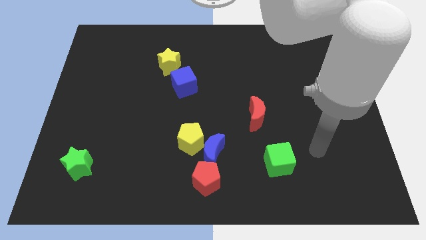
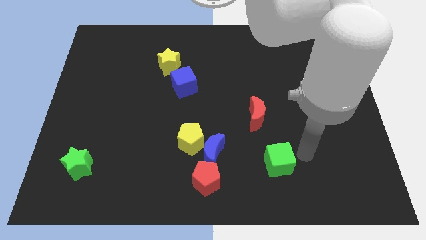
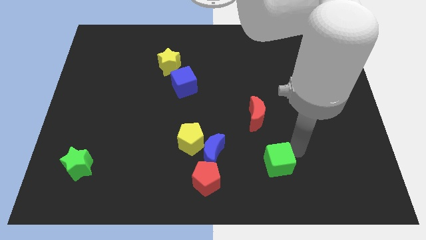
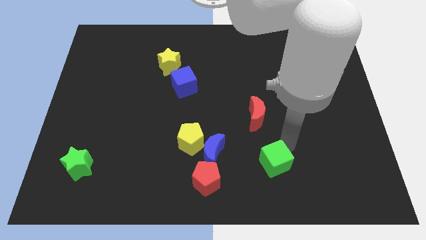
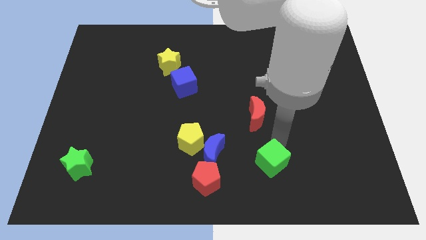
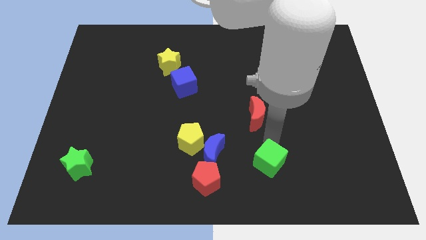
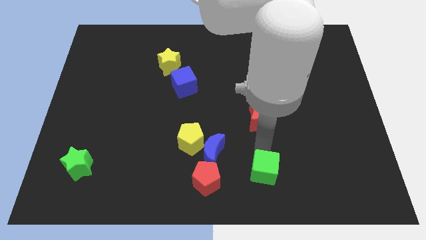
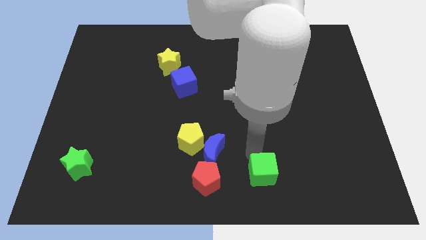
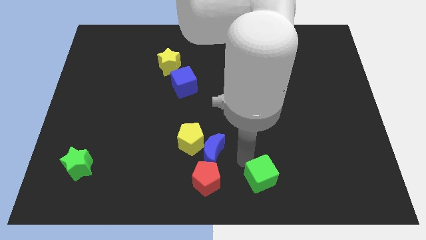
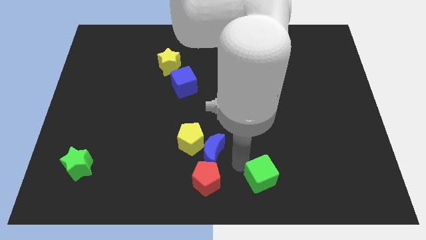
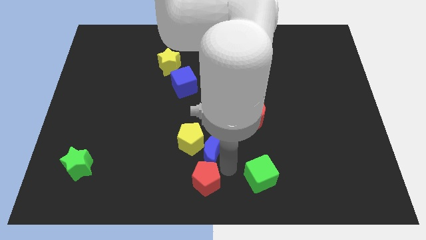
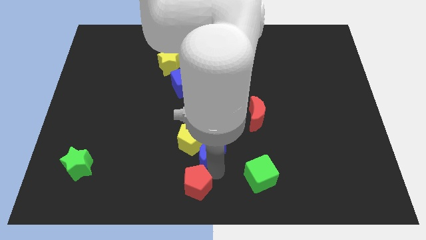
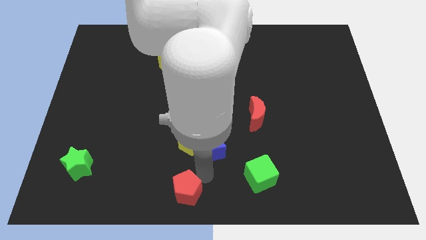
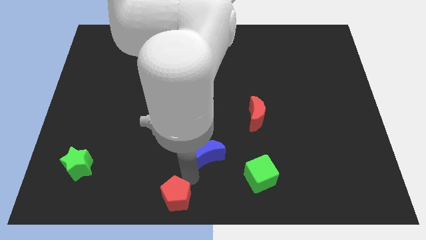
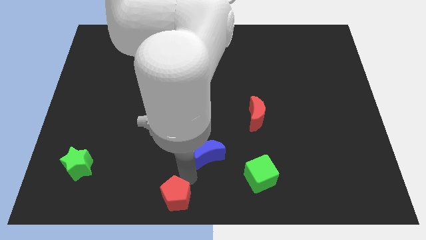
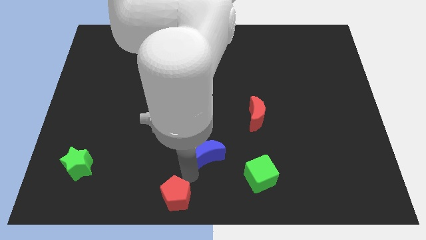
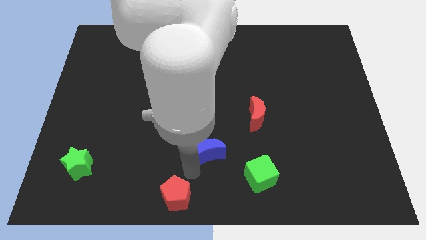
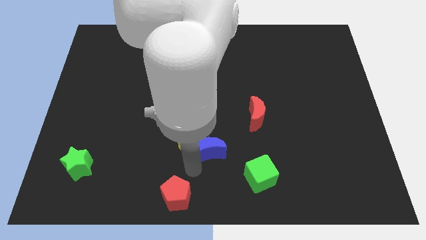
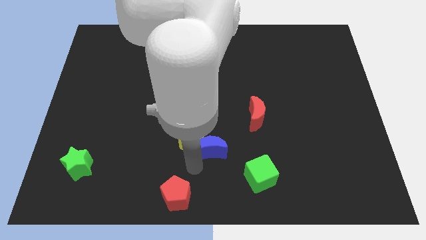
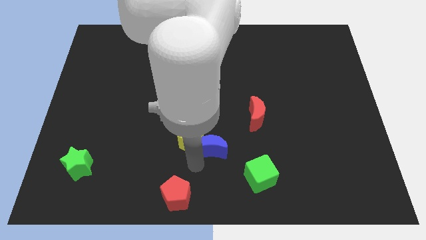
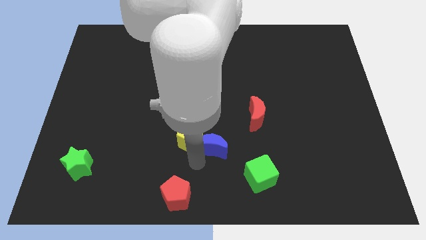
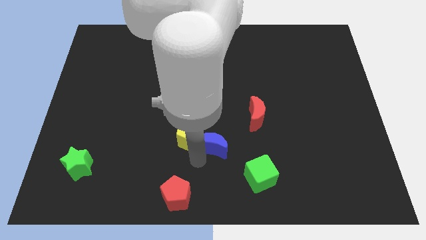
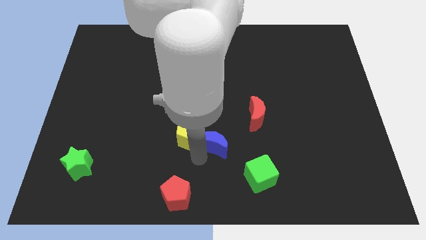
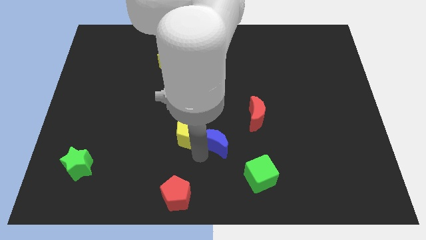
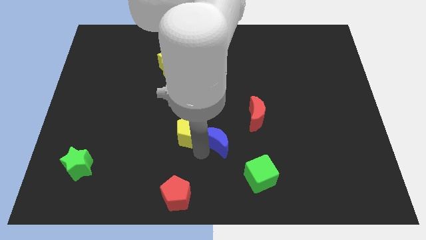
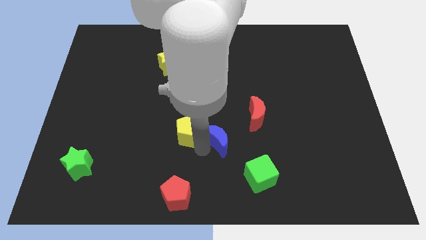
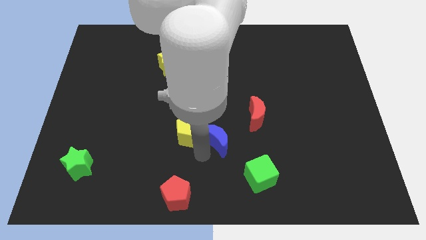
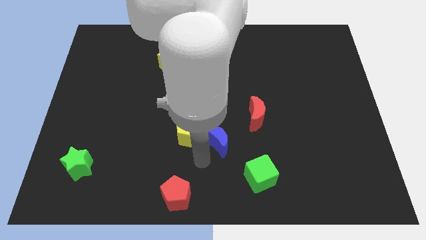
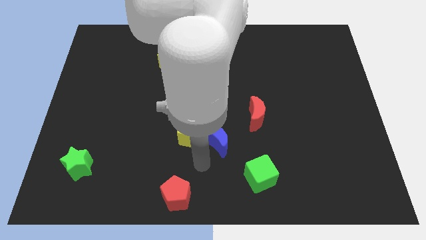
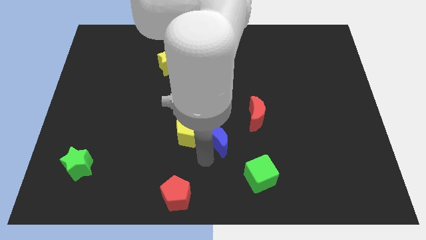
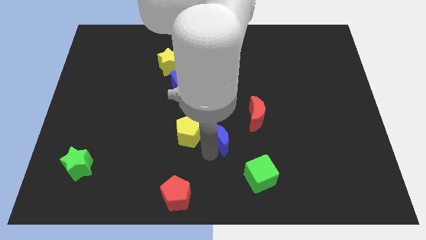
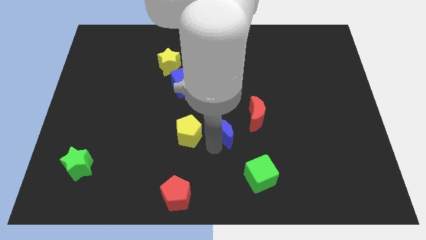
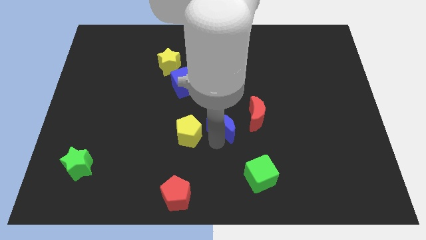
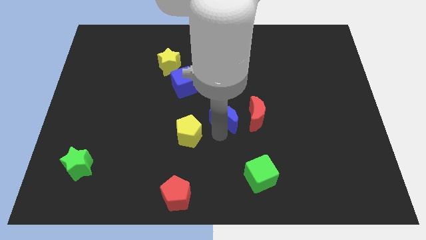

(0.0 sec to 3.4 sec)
move the blue moon a little up and then right

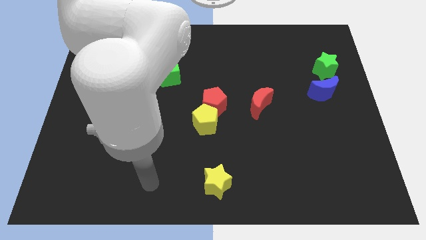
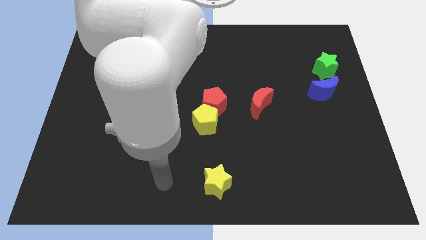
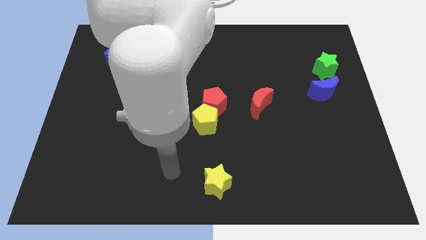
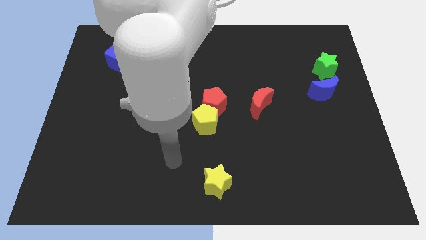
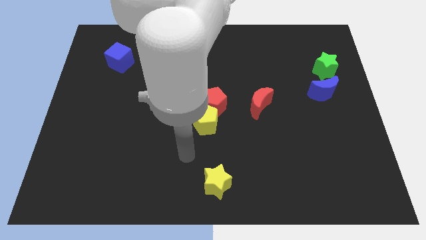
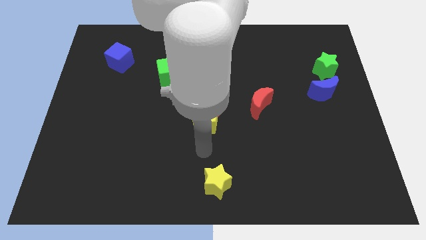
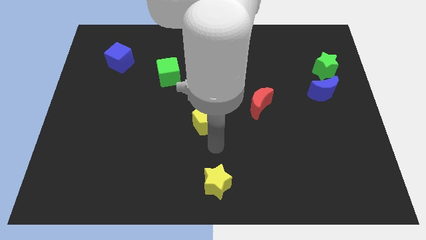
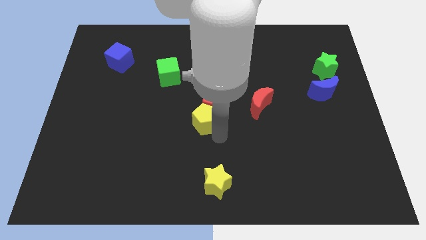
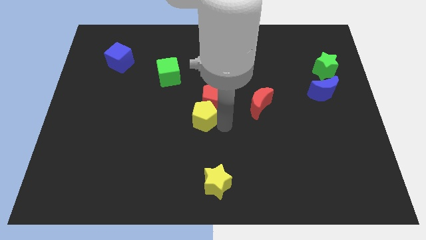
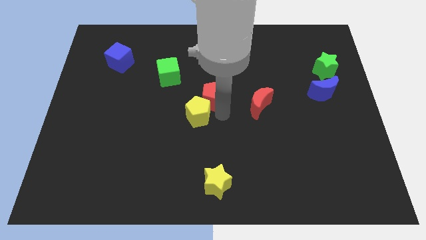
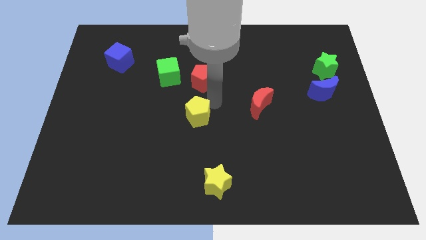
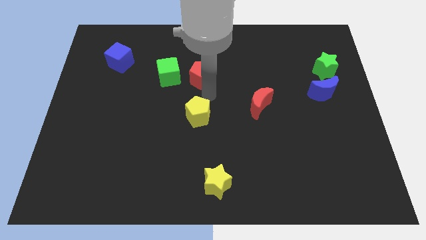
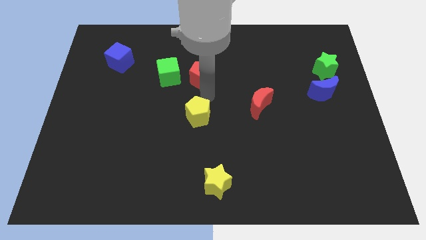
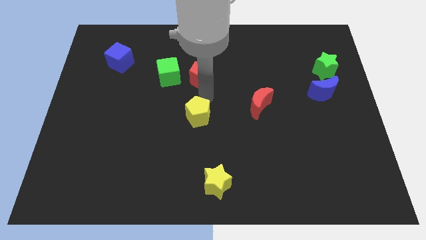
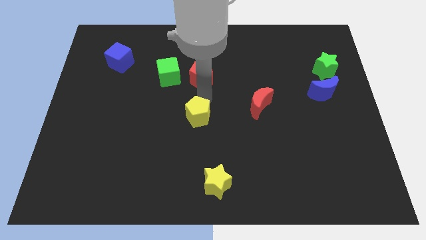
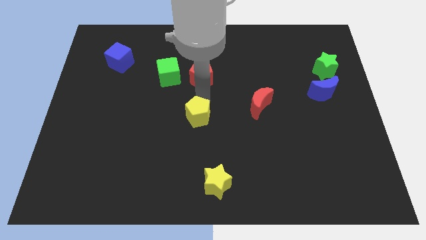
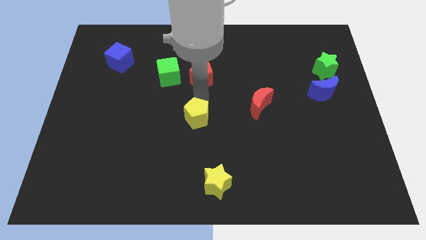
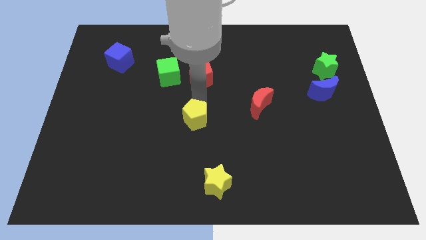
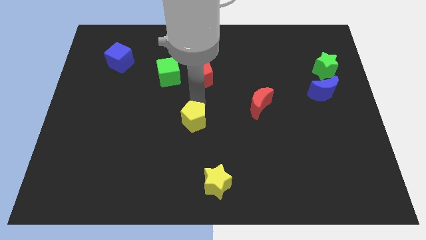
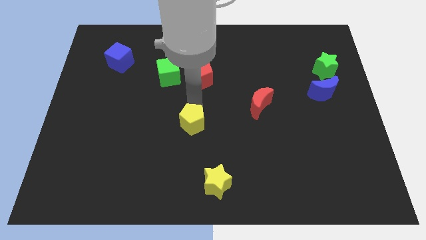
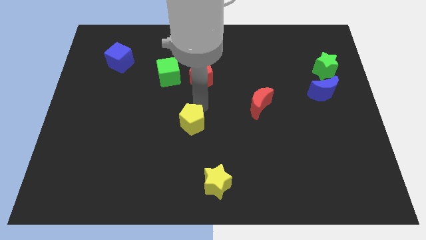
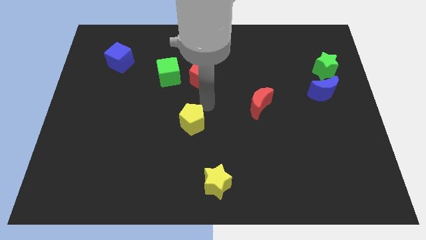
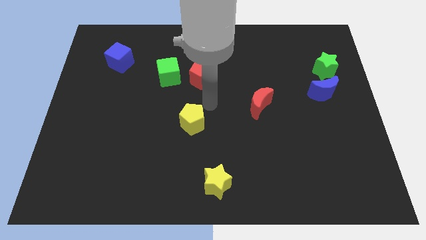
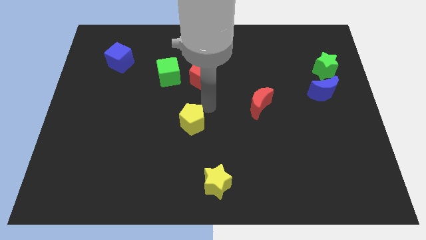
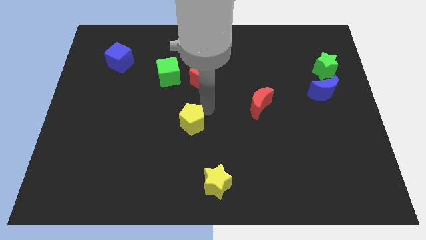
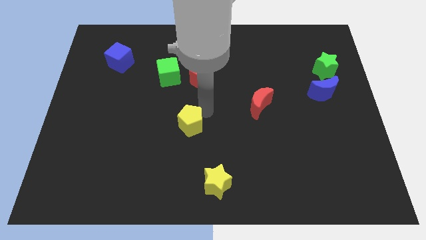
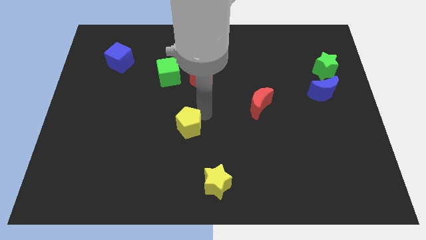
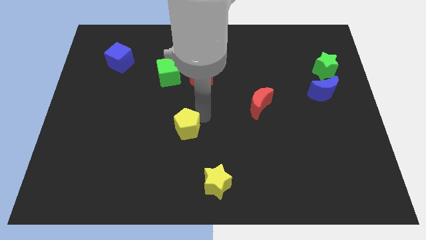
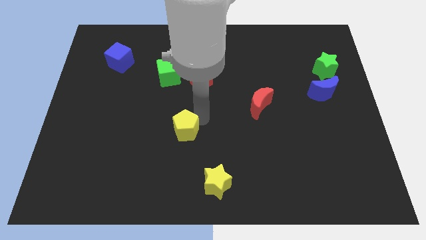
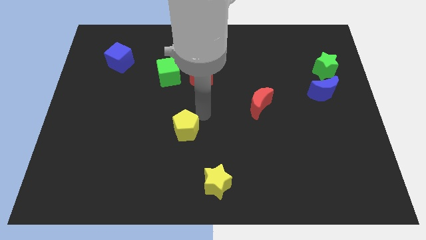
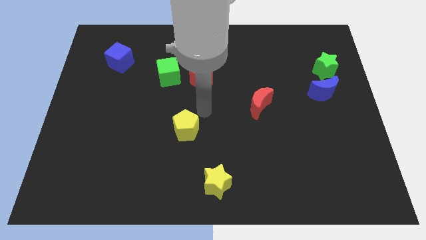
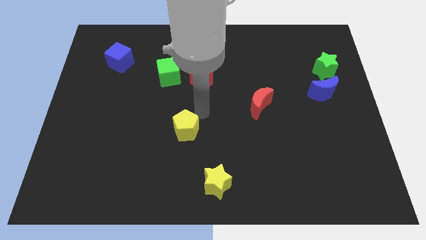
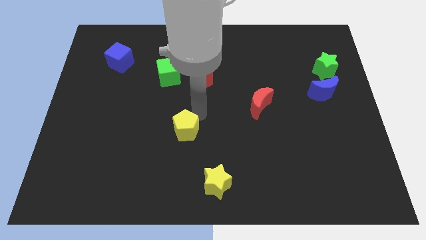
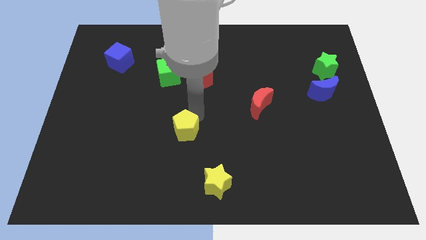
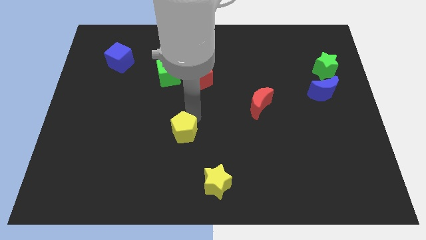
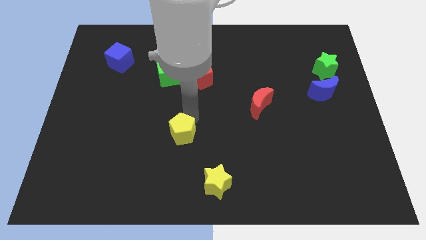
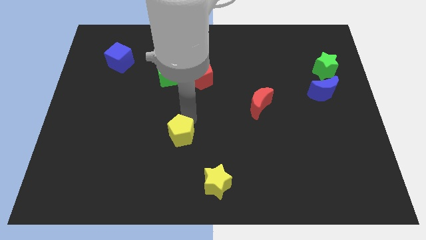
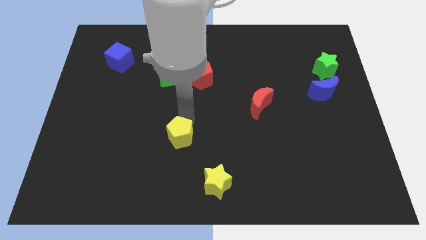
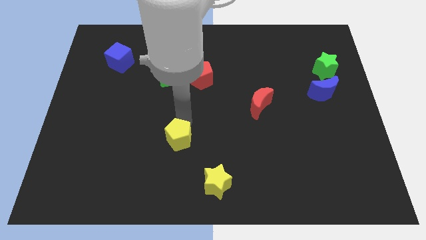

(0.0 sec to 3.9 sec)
push the yellow pentagon down and left somewhat

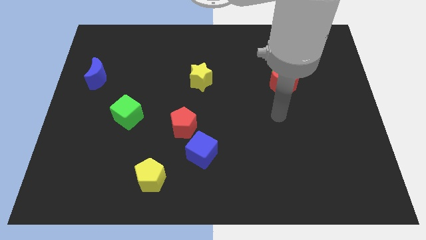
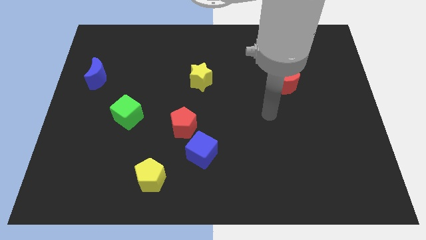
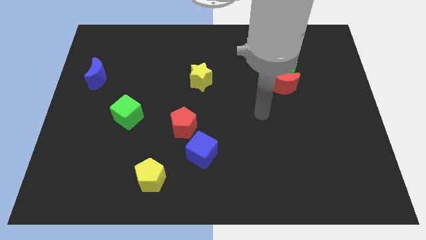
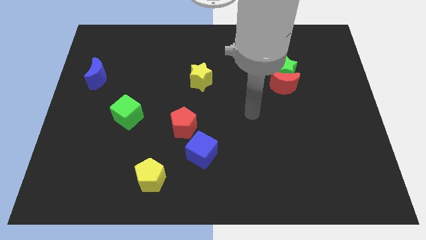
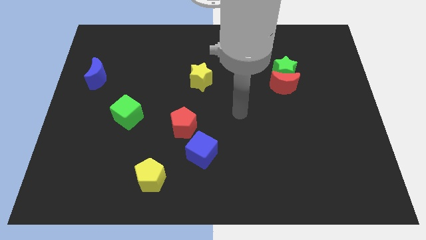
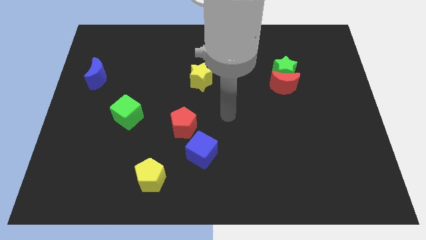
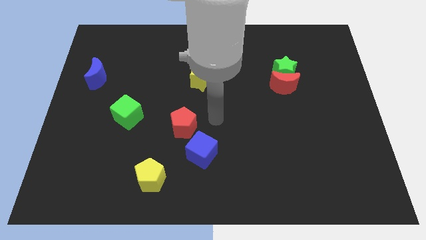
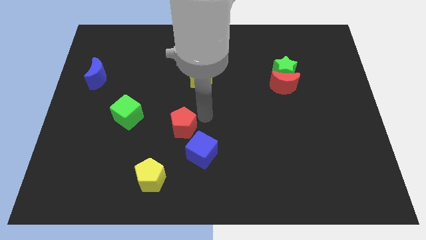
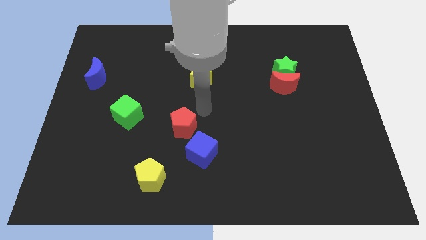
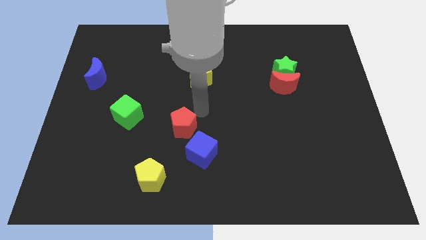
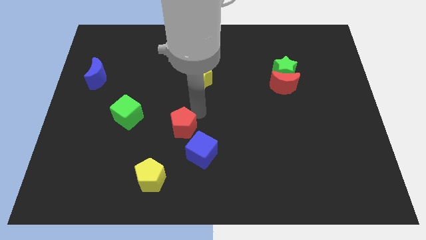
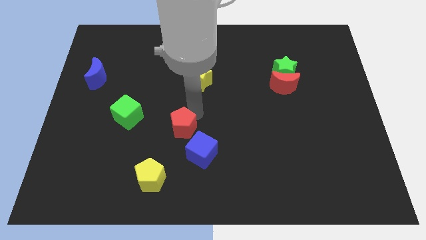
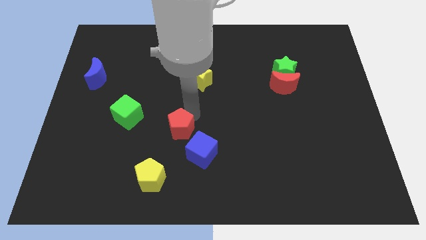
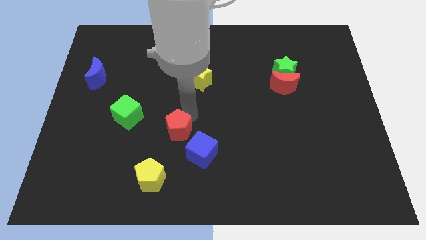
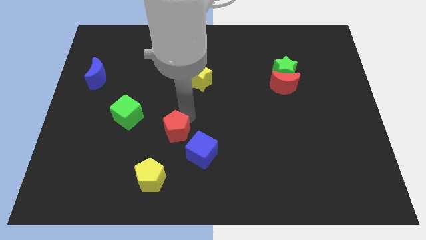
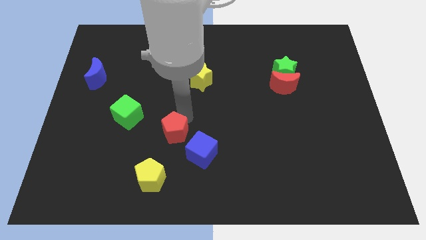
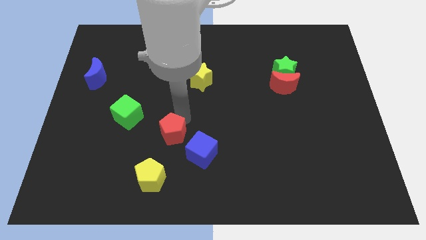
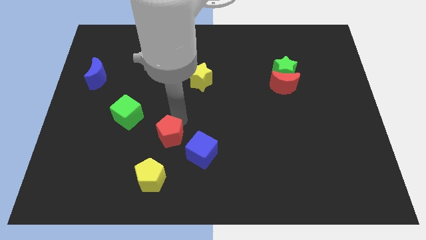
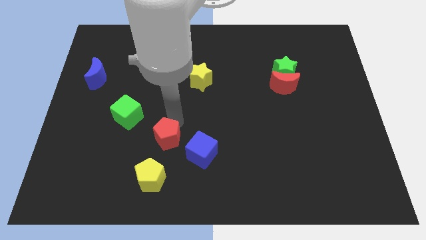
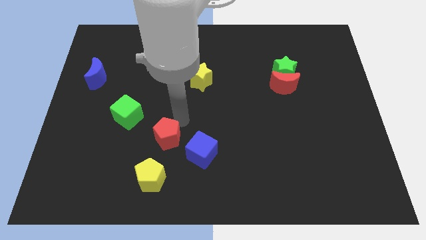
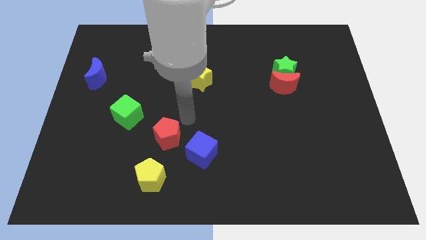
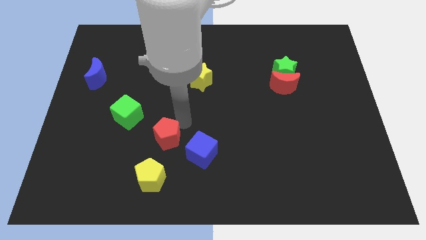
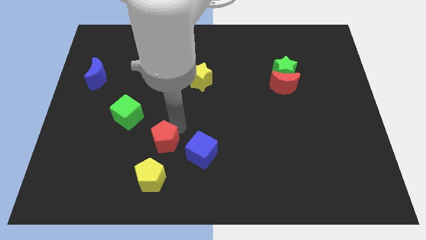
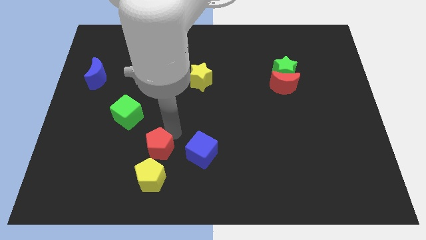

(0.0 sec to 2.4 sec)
slightly push the red pentagon down and to the left
